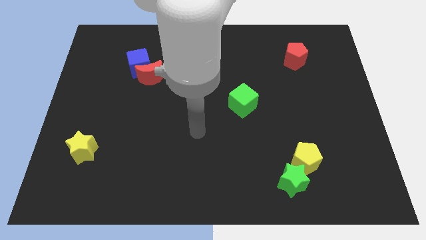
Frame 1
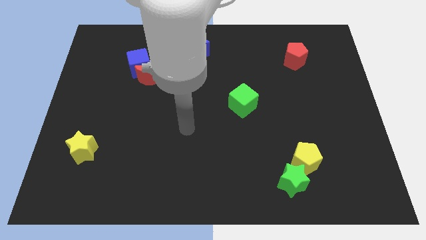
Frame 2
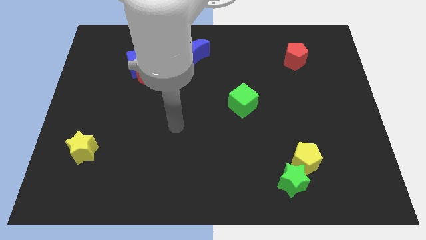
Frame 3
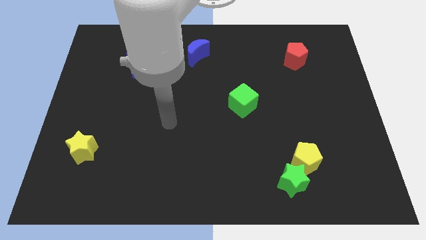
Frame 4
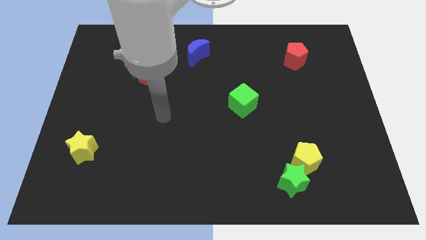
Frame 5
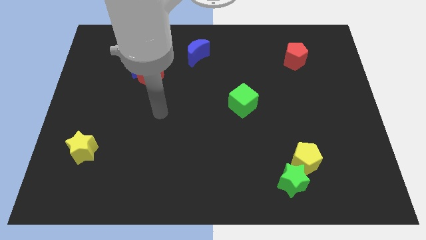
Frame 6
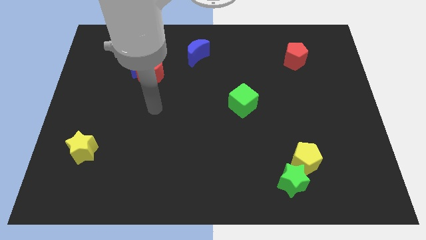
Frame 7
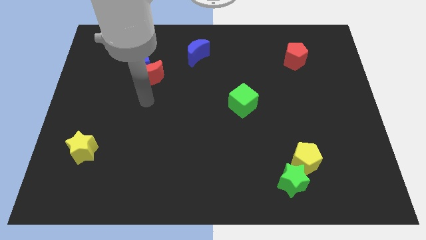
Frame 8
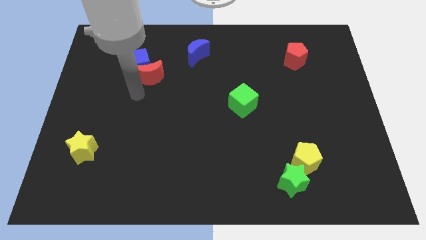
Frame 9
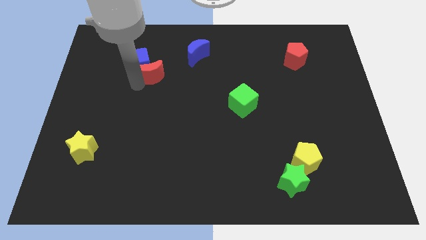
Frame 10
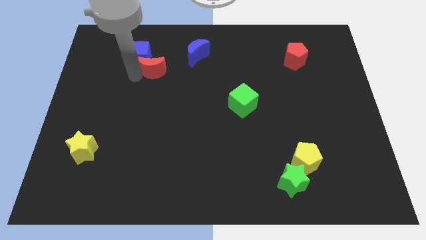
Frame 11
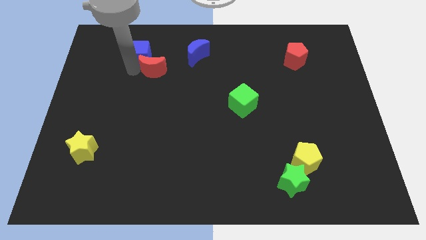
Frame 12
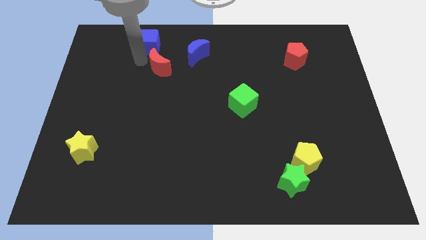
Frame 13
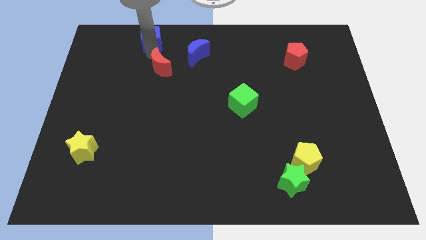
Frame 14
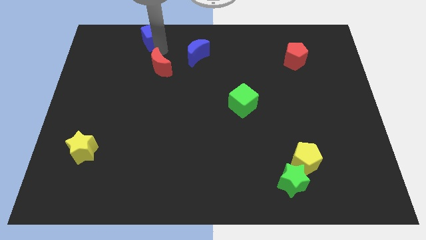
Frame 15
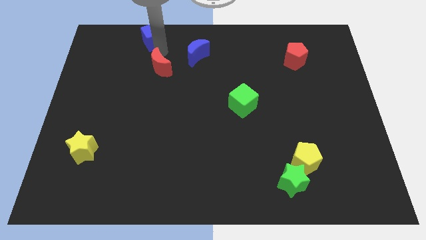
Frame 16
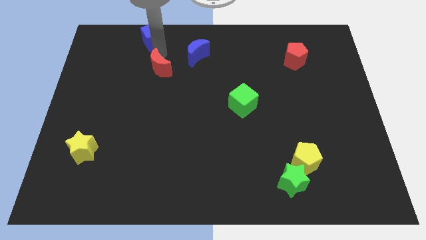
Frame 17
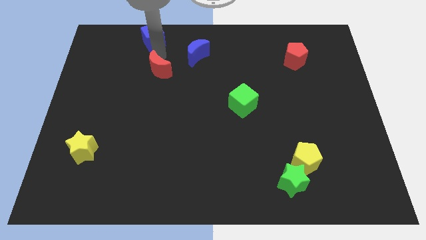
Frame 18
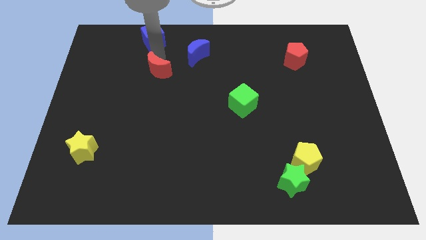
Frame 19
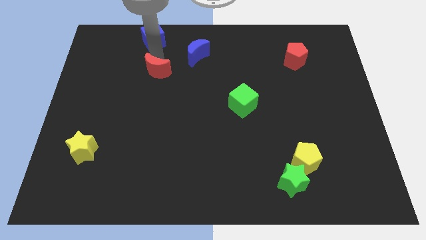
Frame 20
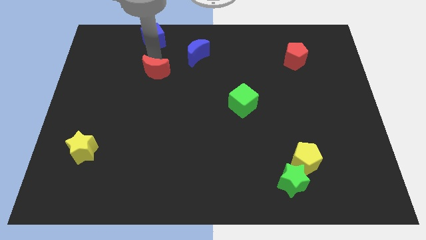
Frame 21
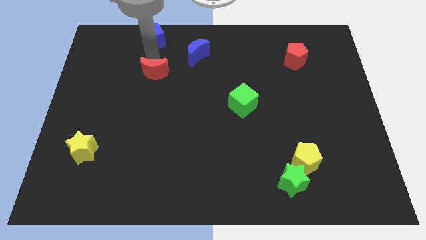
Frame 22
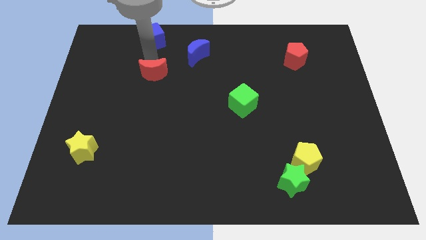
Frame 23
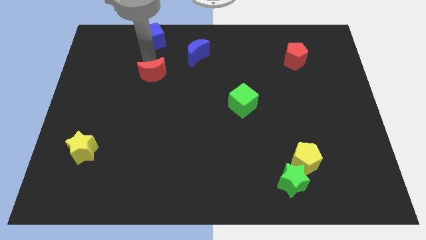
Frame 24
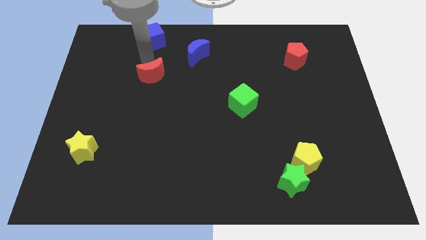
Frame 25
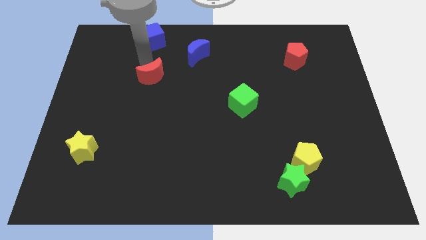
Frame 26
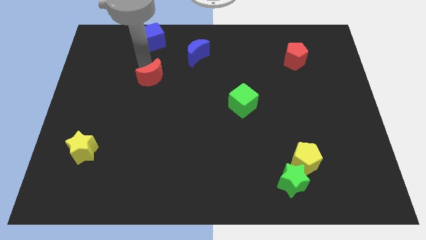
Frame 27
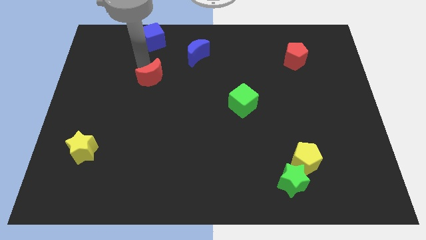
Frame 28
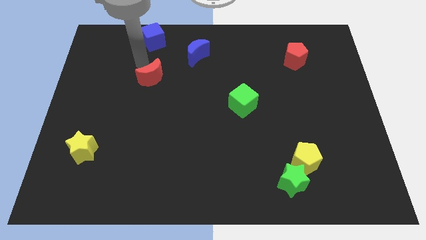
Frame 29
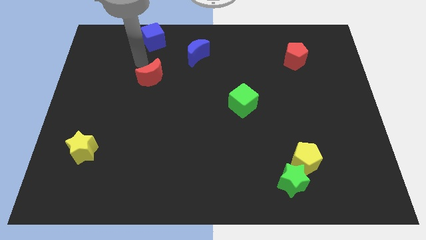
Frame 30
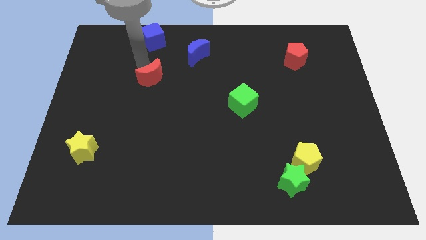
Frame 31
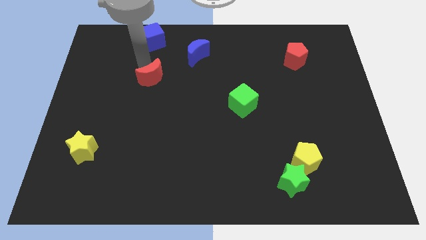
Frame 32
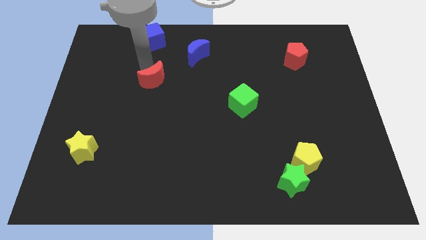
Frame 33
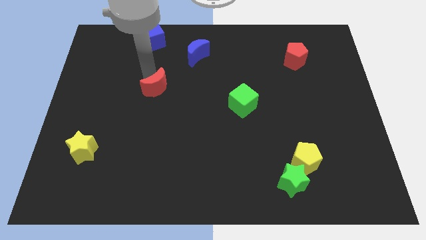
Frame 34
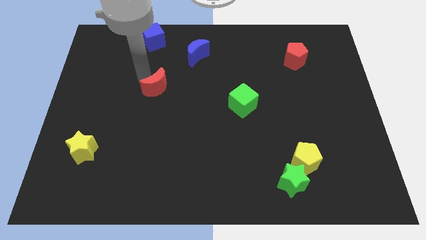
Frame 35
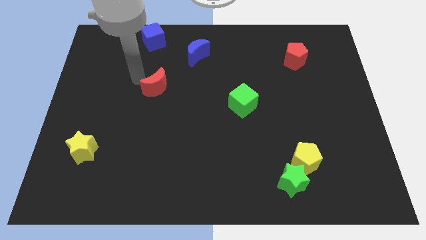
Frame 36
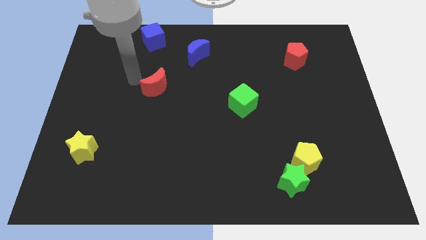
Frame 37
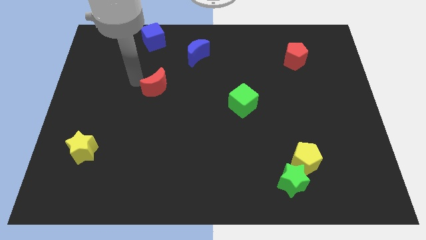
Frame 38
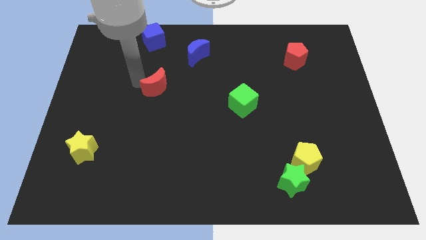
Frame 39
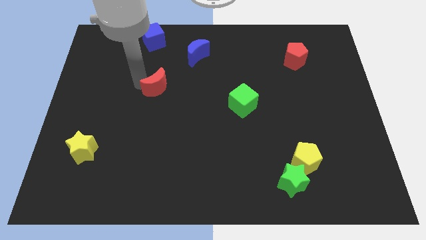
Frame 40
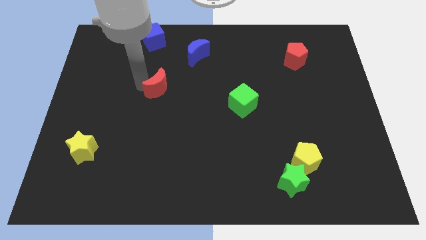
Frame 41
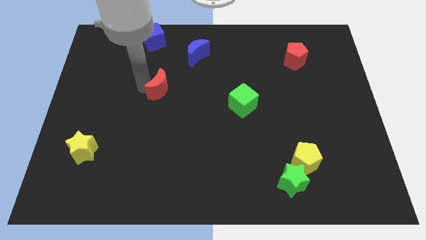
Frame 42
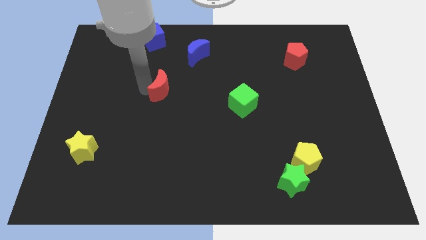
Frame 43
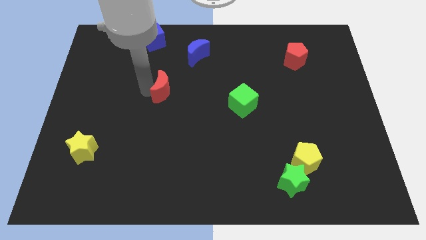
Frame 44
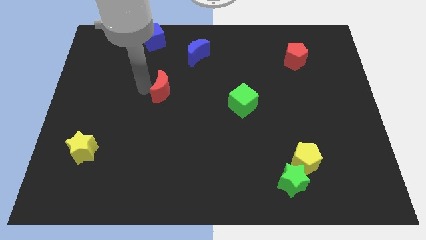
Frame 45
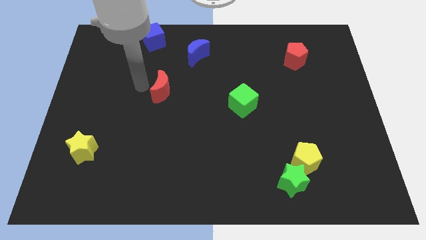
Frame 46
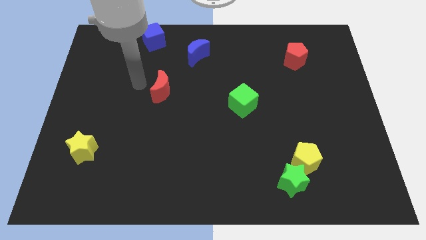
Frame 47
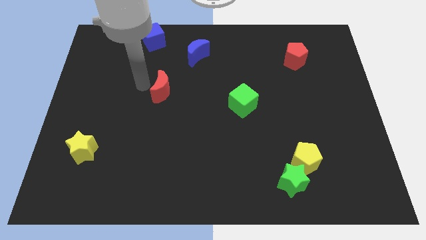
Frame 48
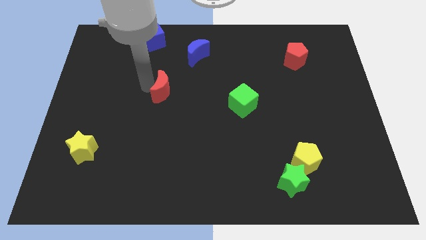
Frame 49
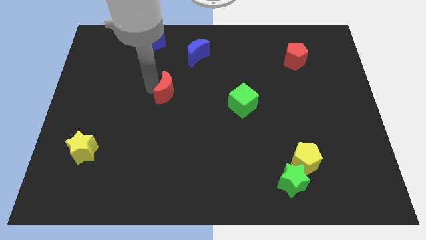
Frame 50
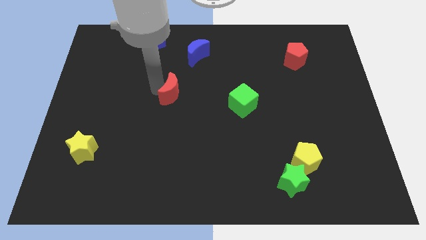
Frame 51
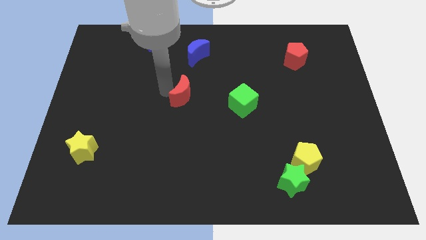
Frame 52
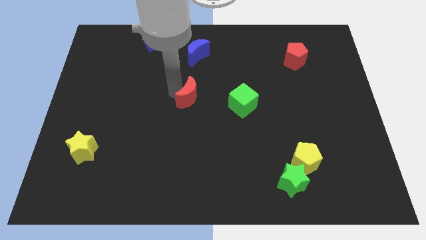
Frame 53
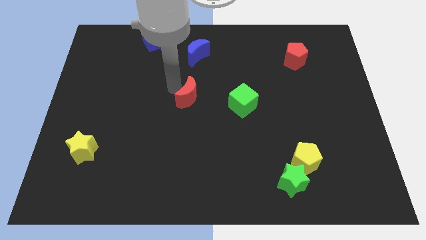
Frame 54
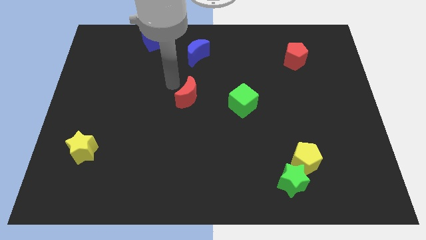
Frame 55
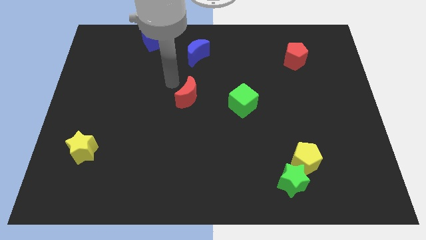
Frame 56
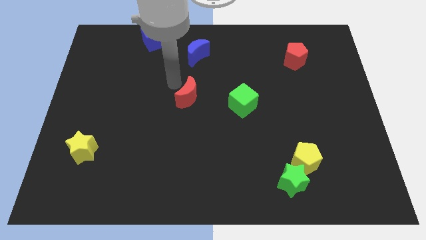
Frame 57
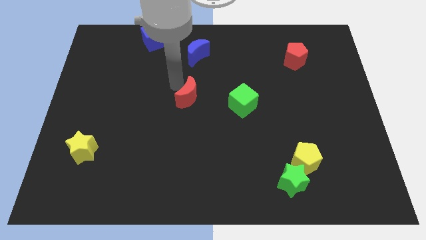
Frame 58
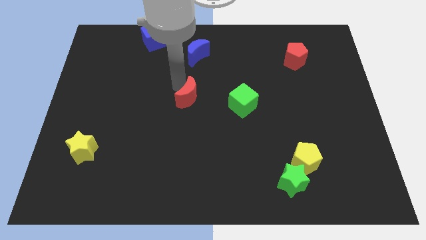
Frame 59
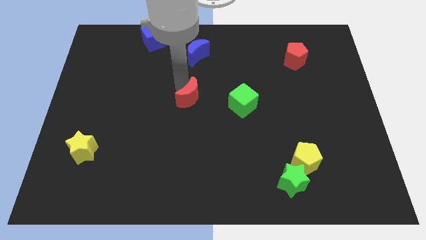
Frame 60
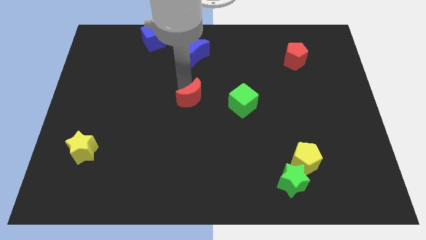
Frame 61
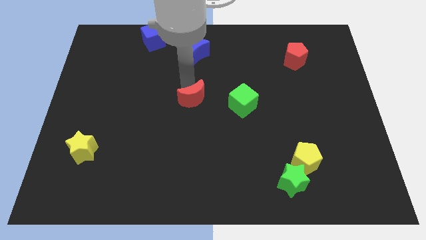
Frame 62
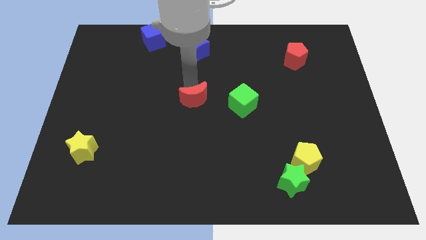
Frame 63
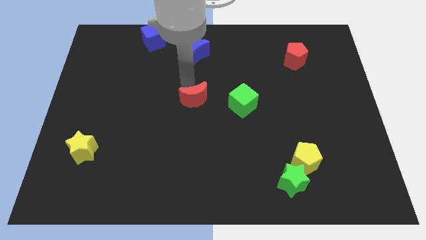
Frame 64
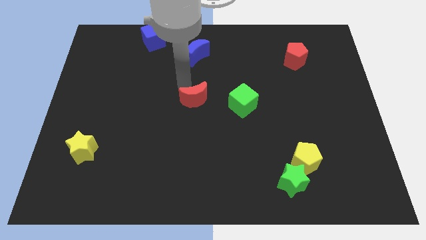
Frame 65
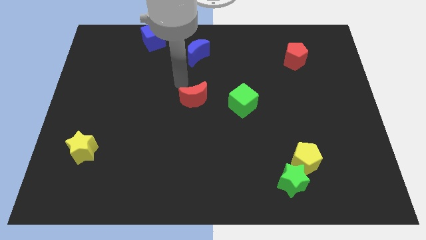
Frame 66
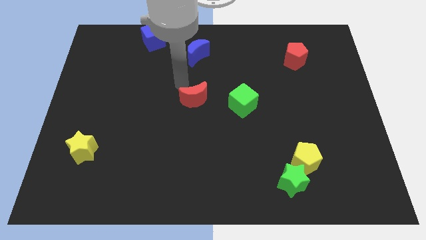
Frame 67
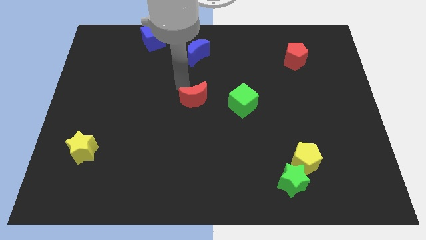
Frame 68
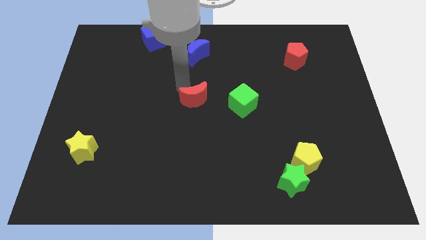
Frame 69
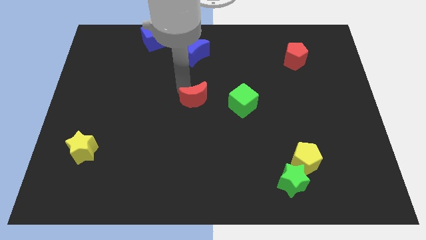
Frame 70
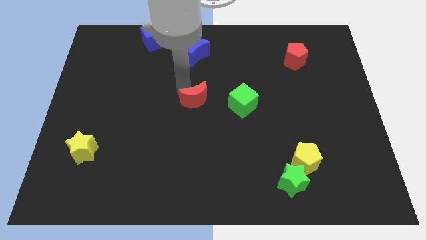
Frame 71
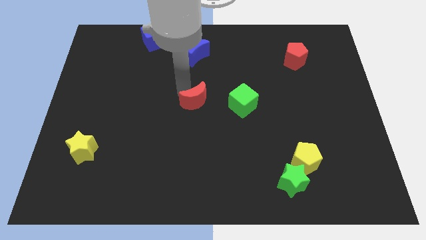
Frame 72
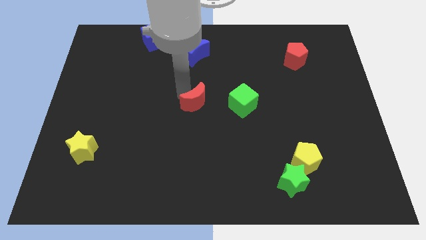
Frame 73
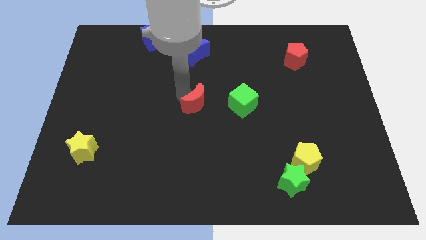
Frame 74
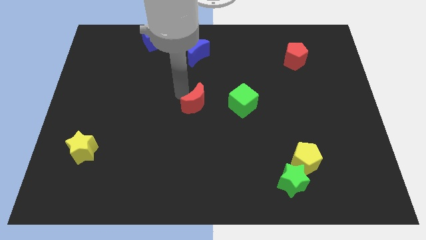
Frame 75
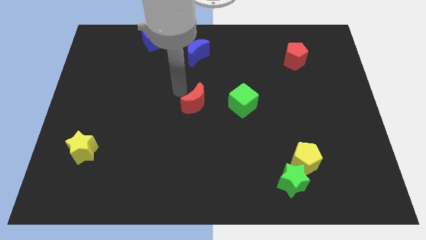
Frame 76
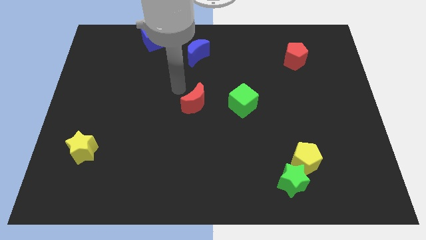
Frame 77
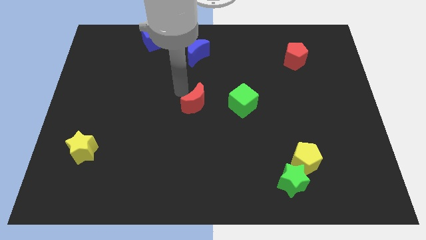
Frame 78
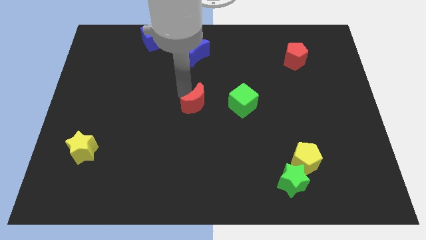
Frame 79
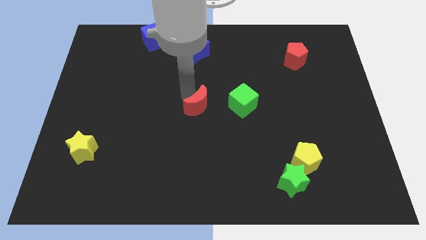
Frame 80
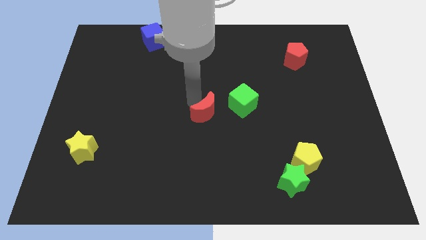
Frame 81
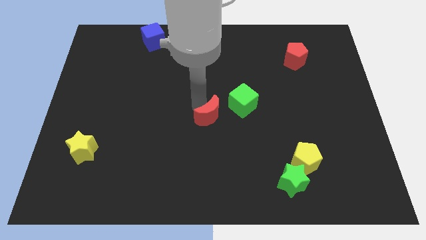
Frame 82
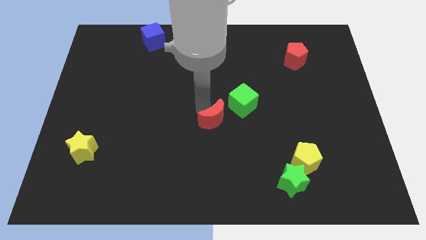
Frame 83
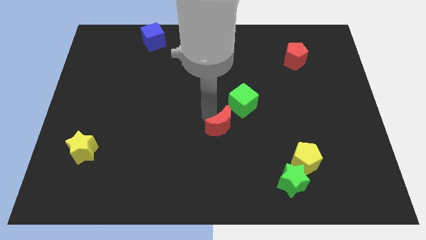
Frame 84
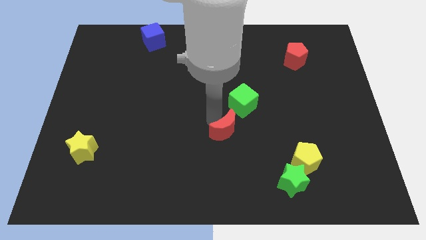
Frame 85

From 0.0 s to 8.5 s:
slide the red moon to the bottom side of the green cube
